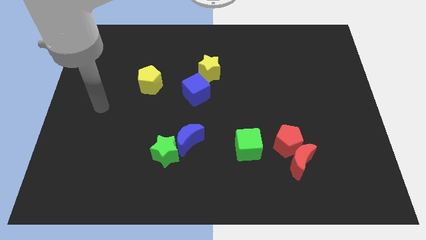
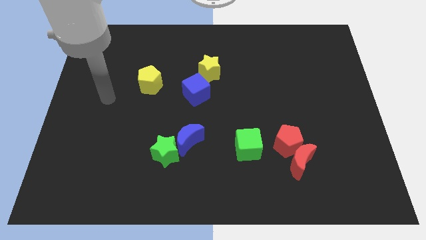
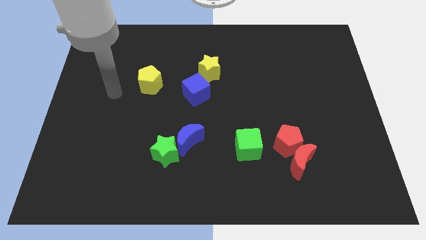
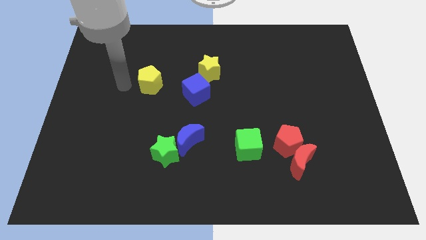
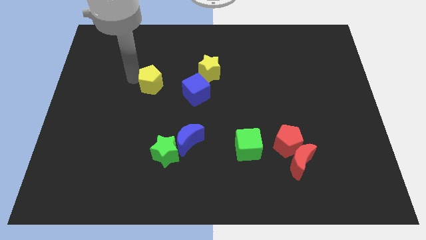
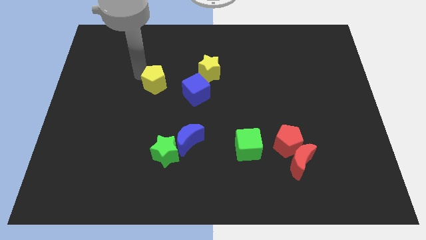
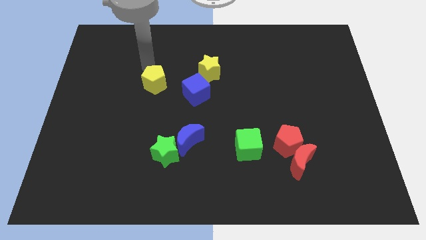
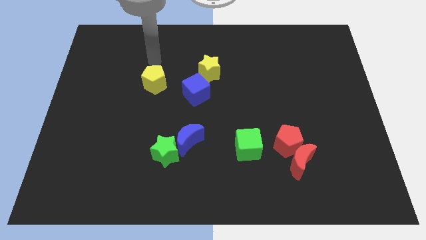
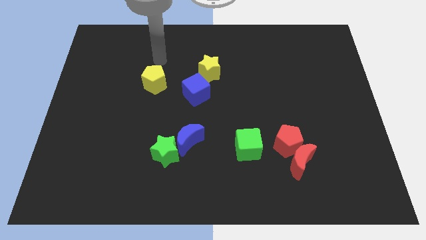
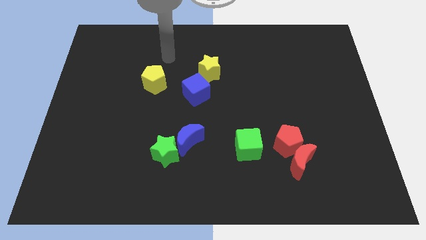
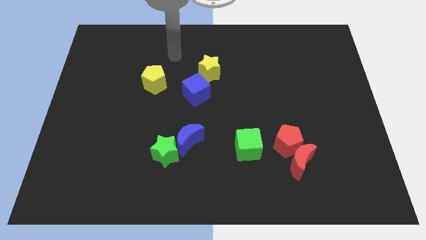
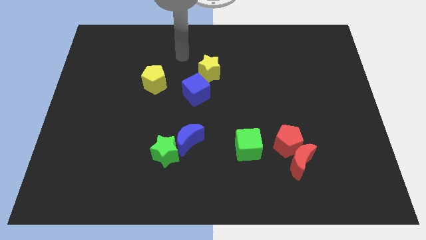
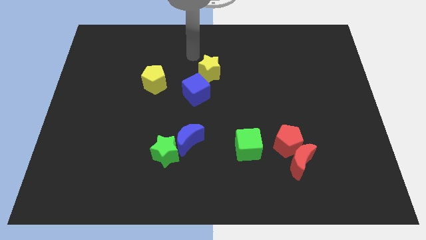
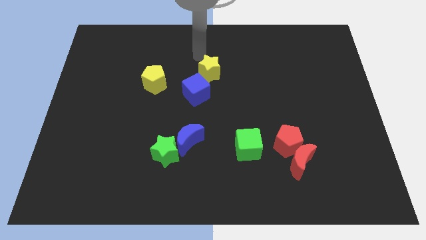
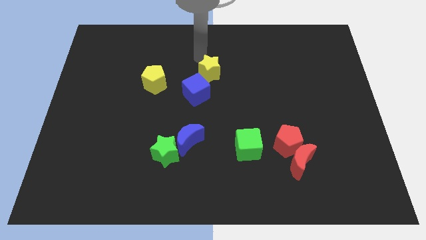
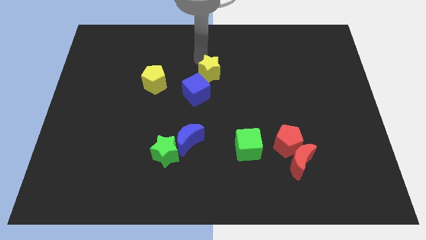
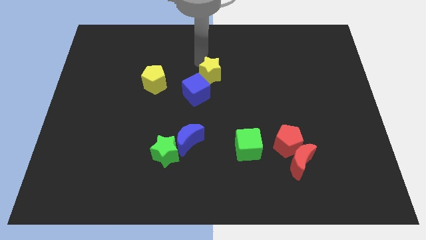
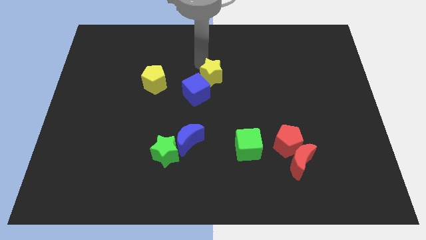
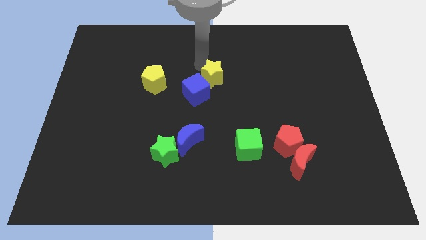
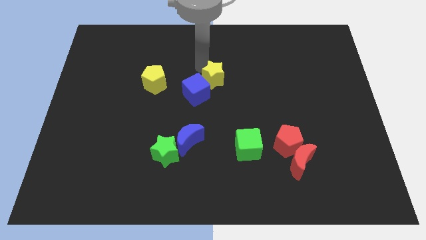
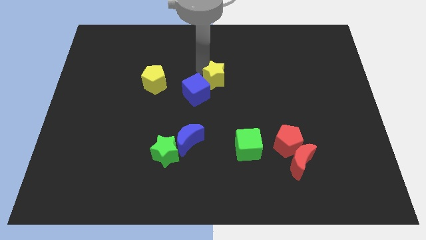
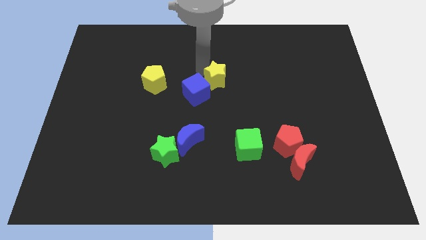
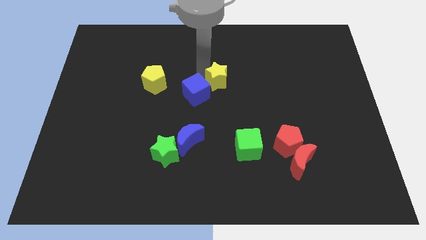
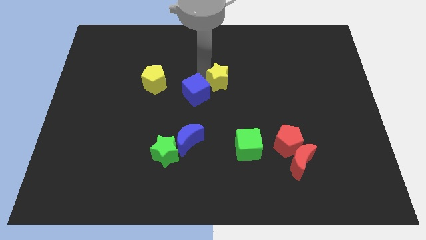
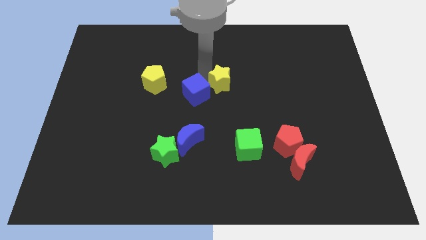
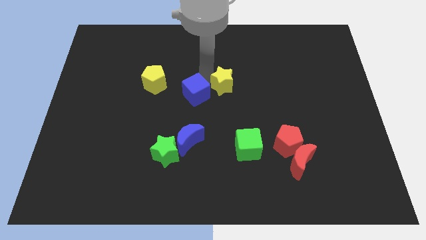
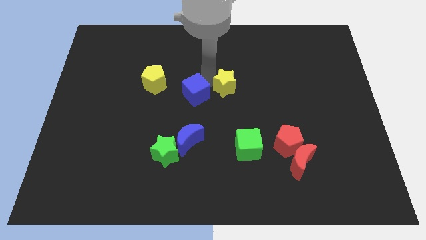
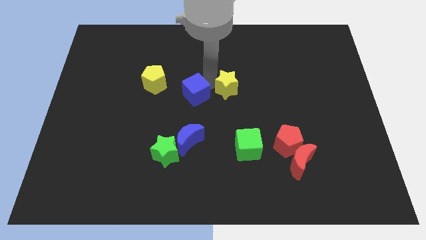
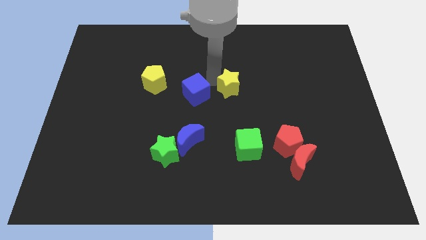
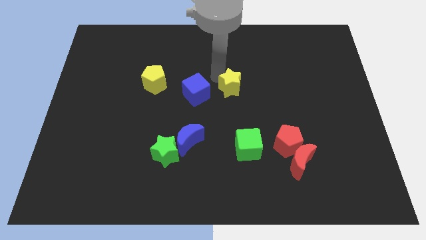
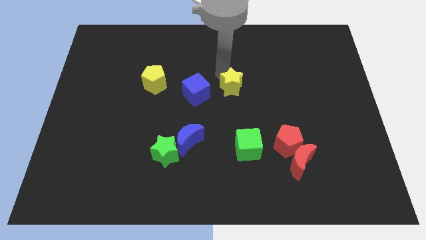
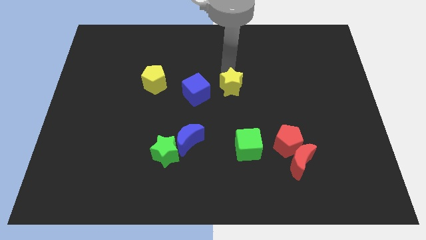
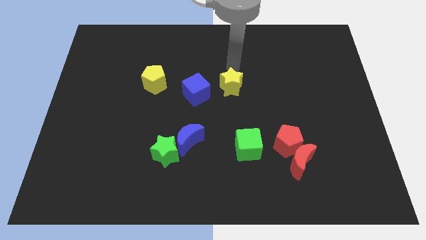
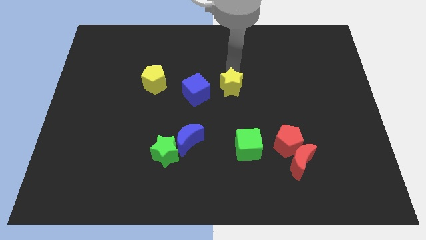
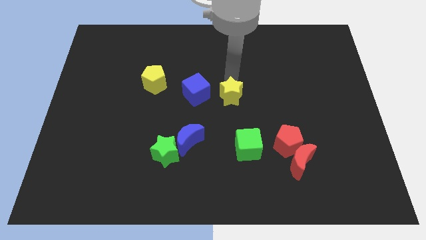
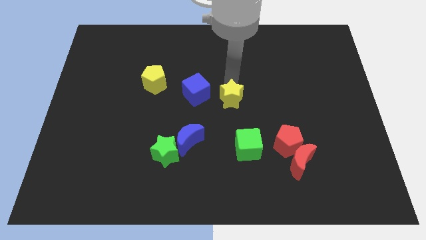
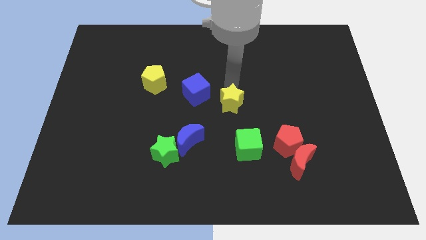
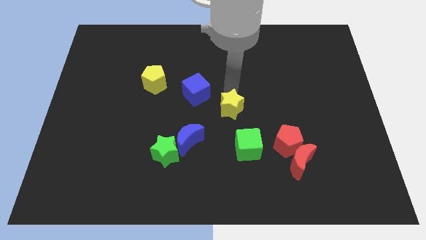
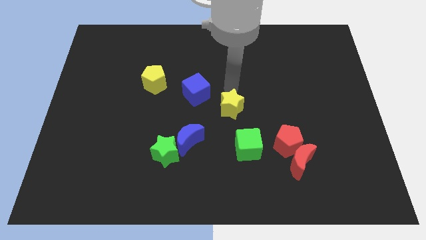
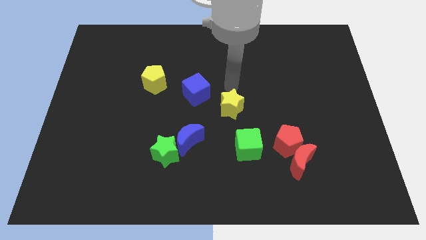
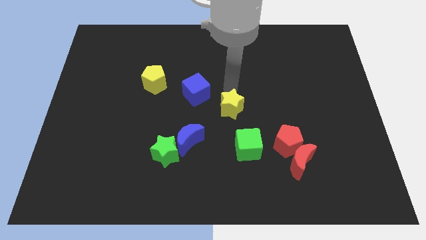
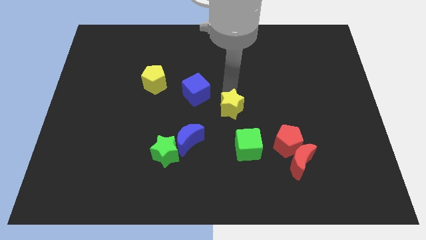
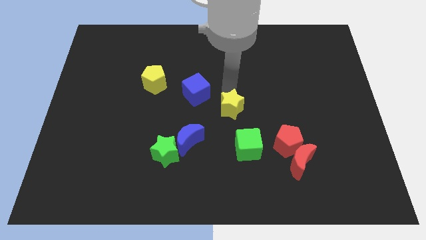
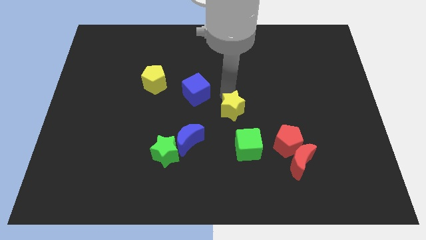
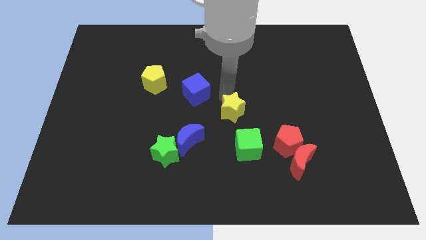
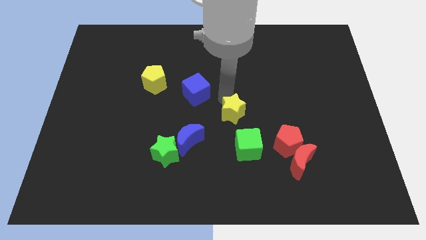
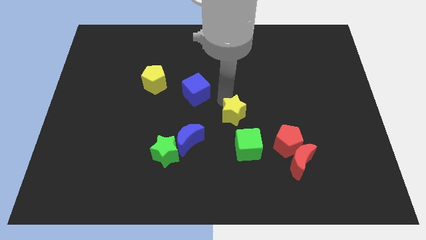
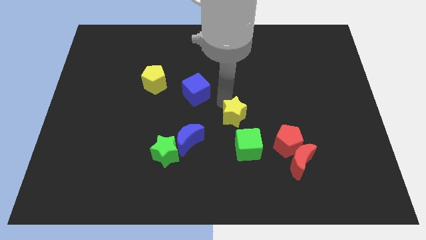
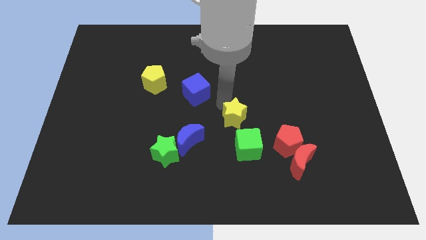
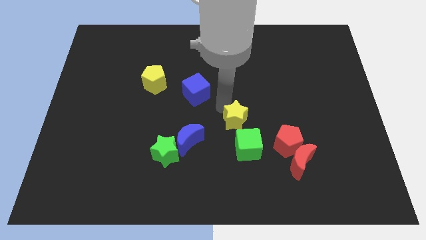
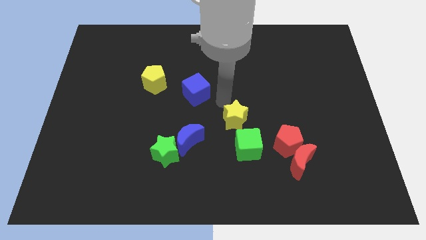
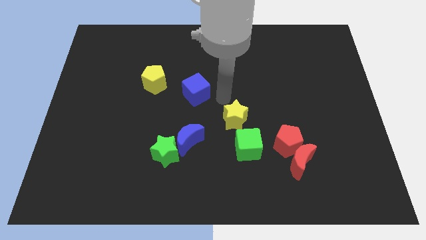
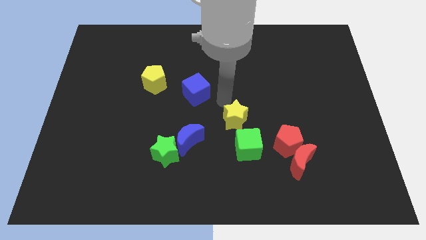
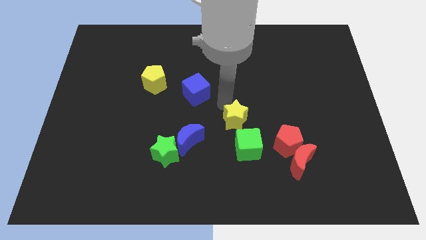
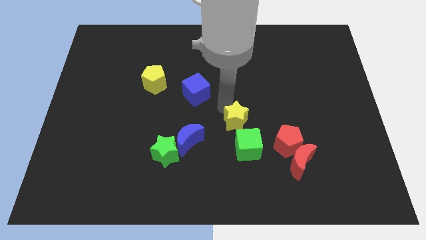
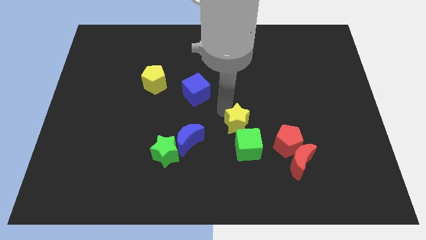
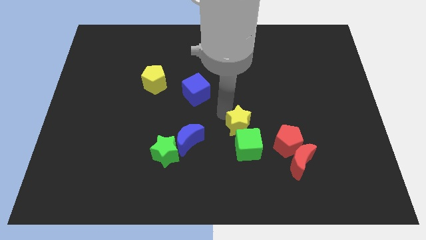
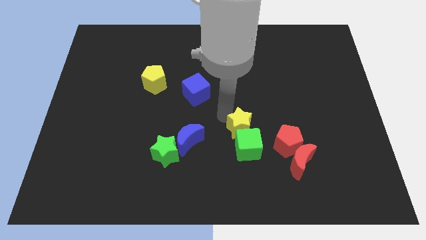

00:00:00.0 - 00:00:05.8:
push the yellow star close to the green cube

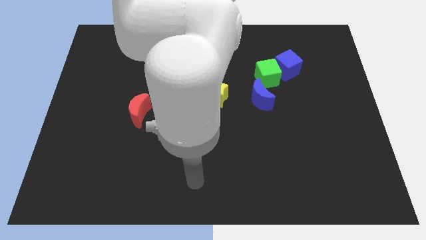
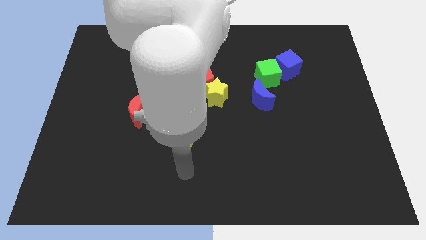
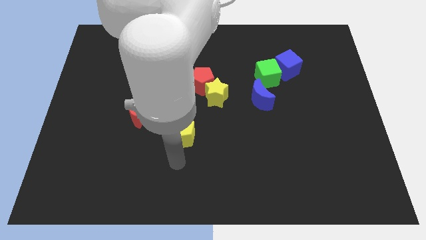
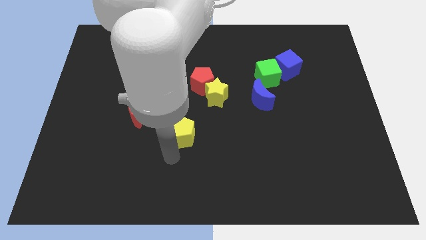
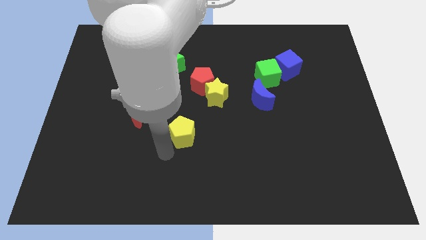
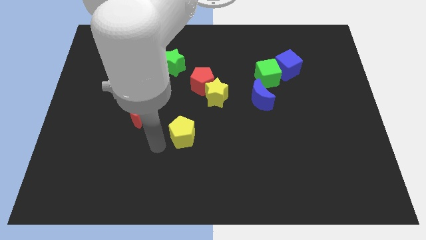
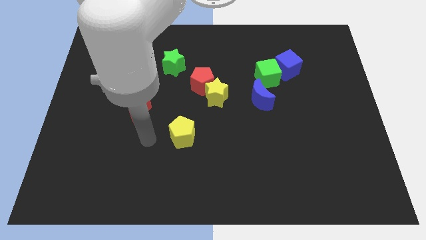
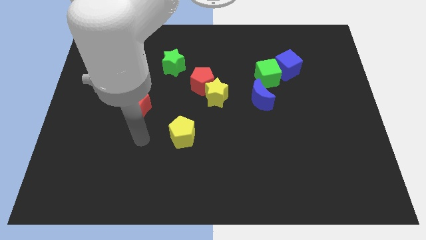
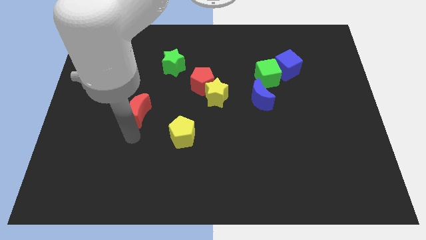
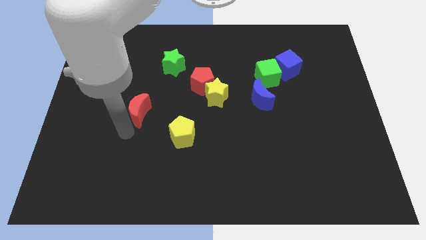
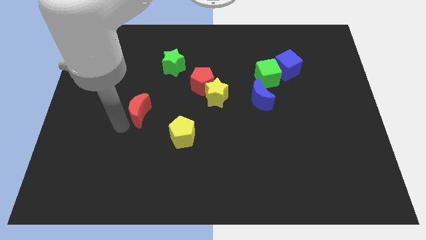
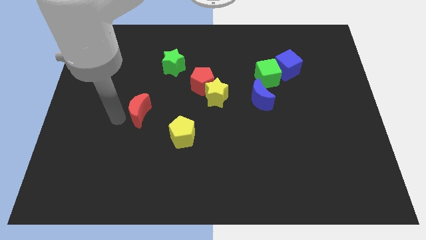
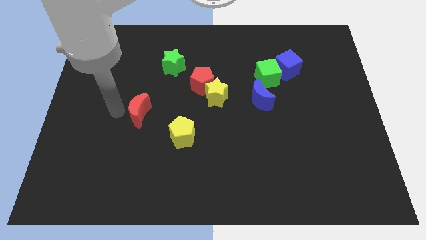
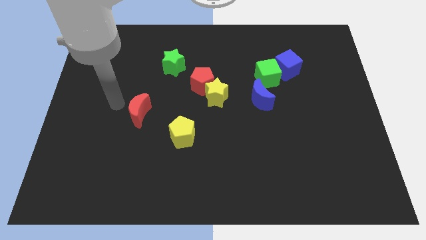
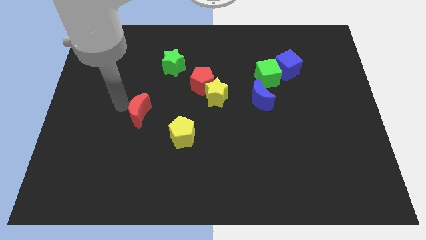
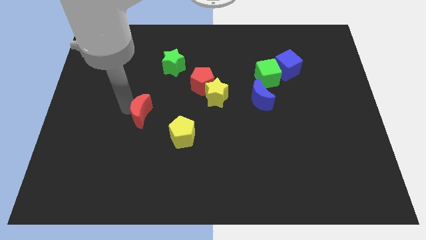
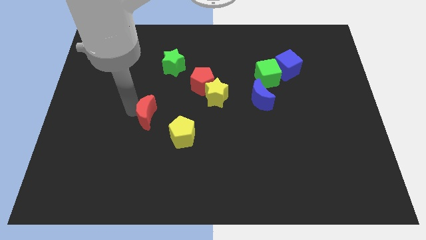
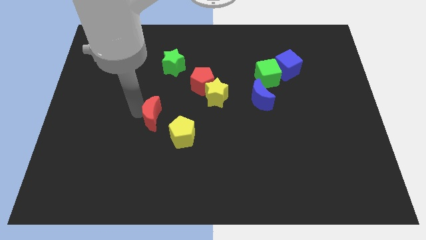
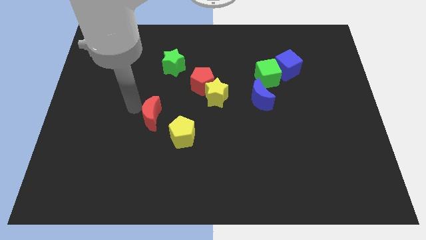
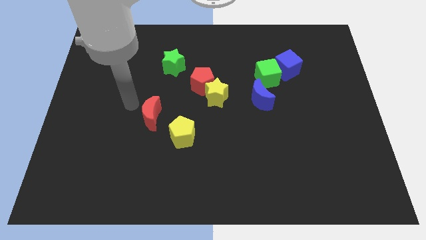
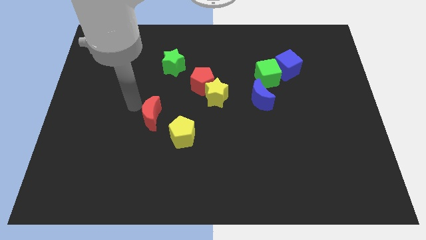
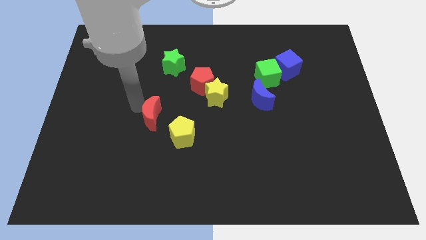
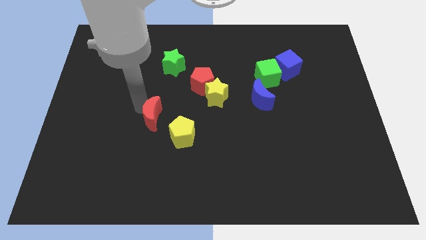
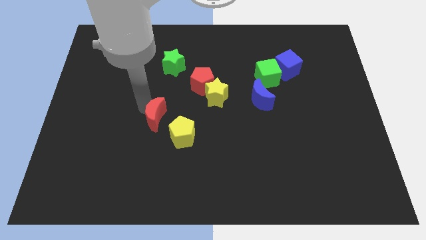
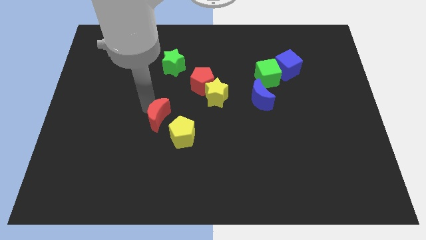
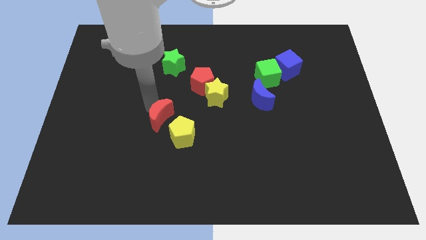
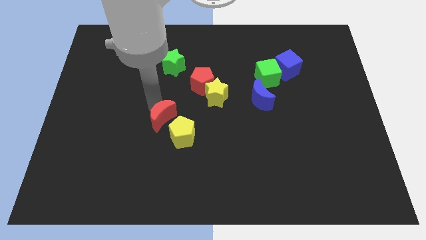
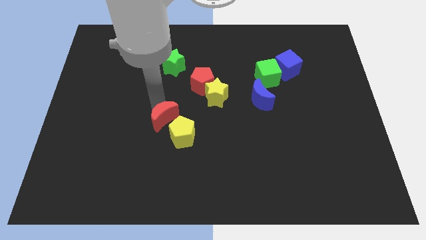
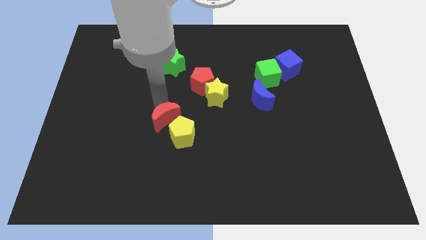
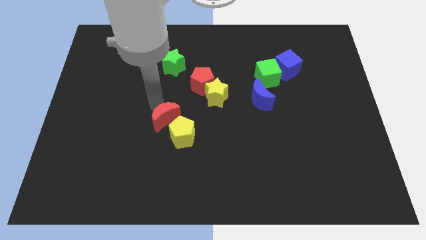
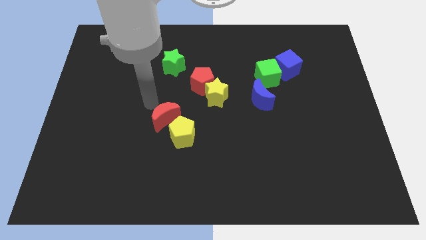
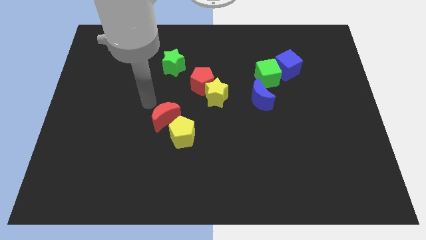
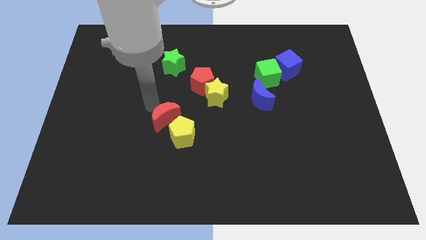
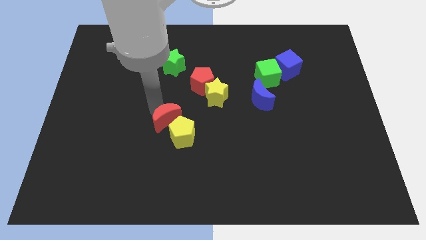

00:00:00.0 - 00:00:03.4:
put the red moon next to the yellow pentagon
